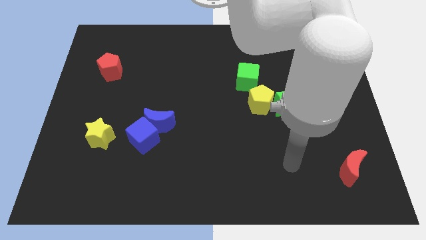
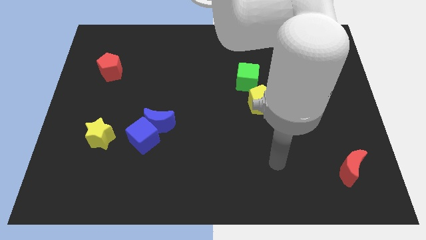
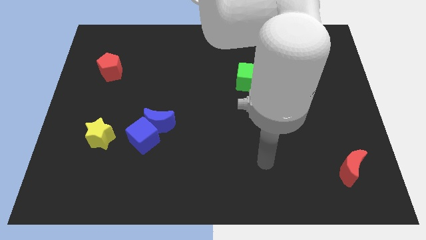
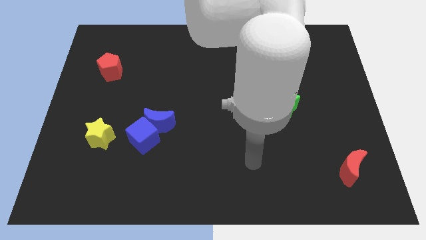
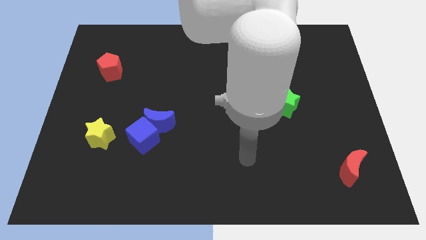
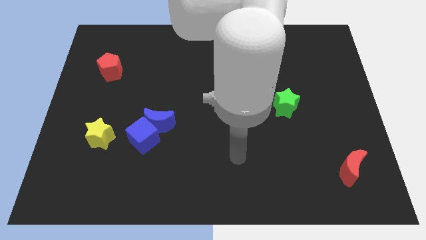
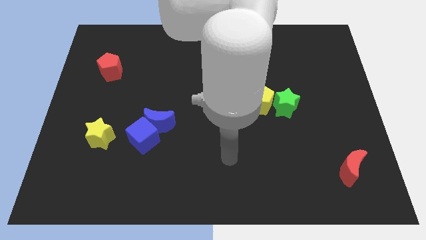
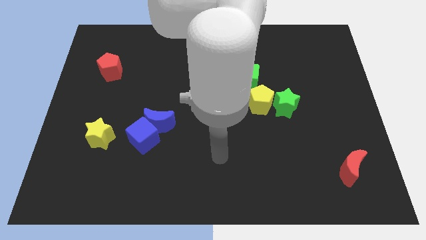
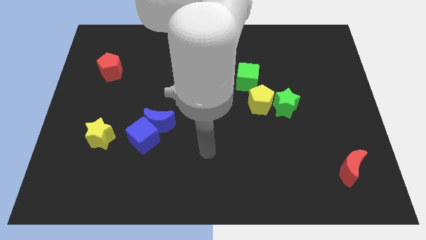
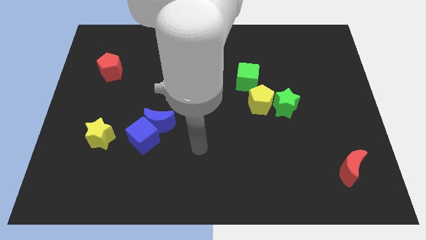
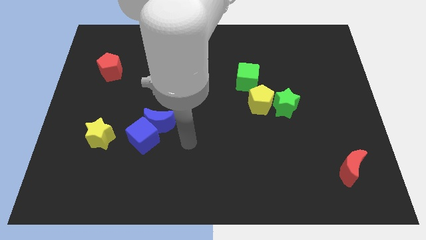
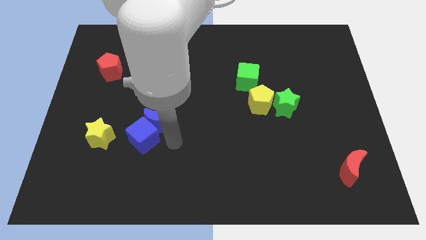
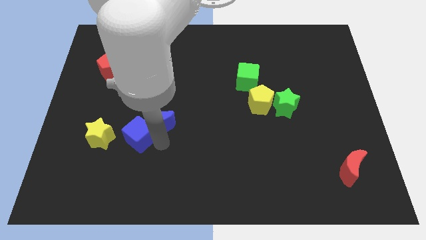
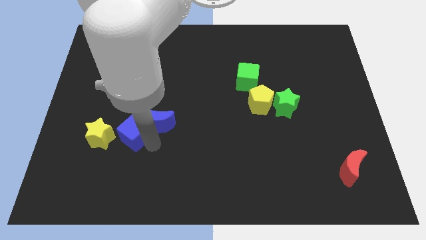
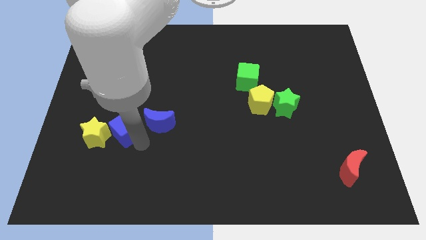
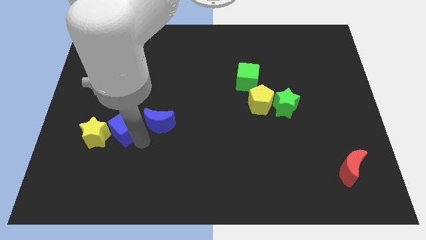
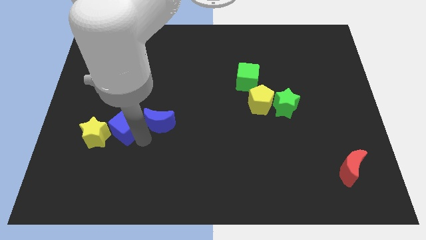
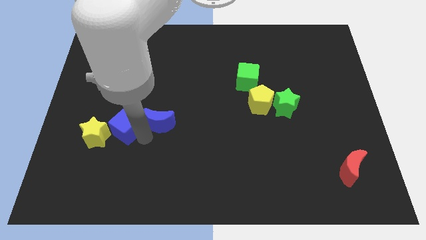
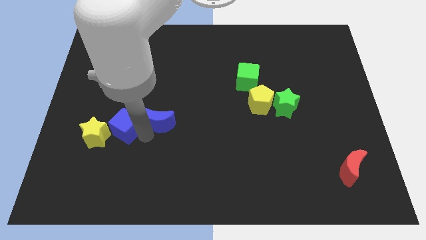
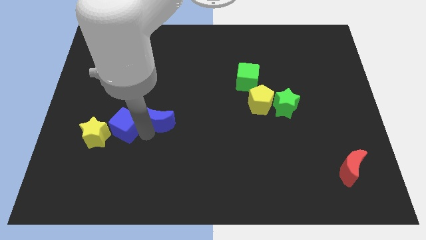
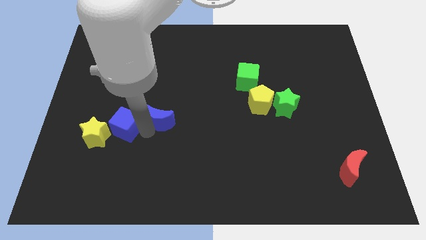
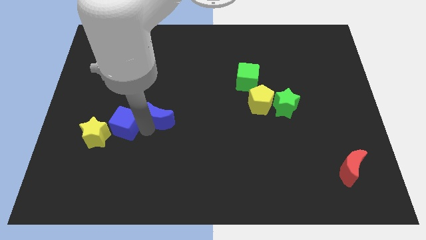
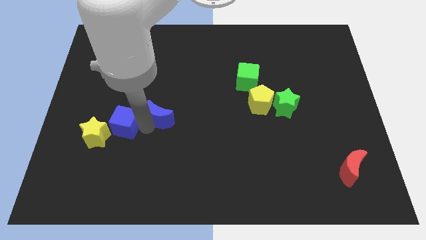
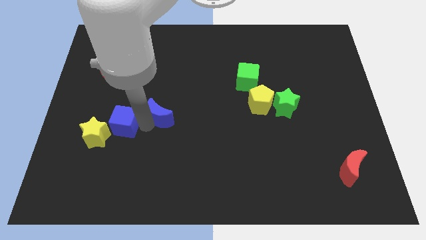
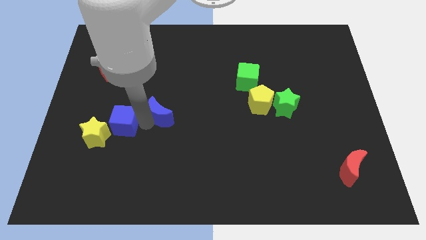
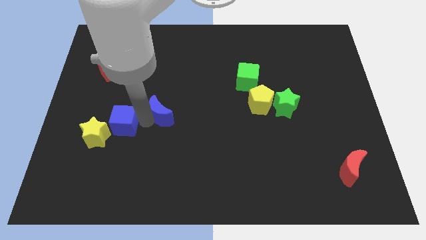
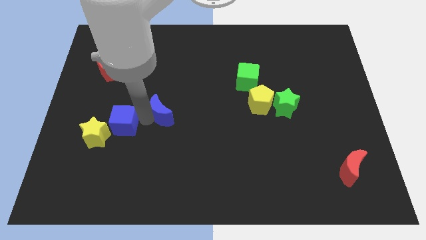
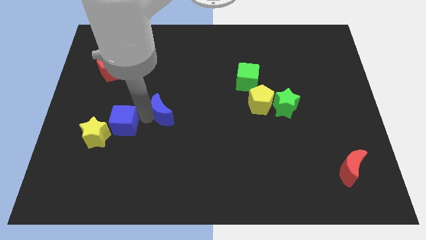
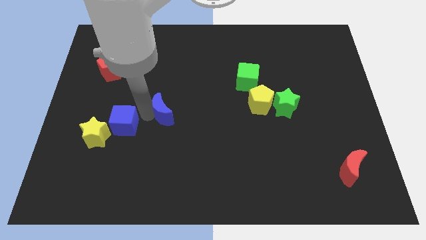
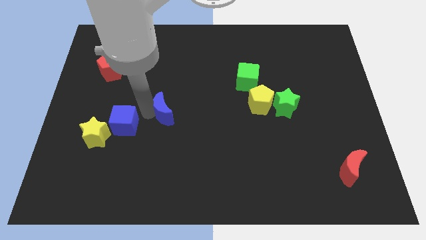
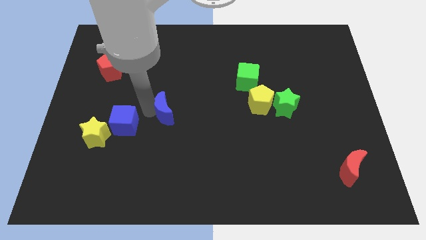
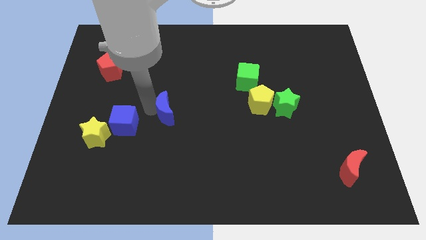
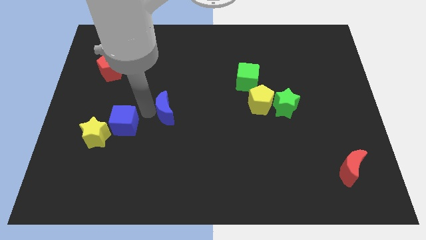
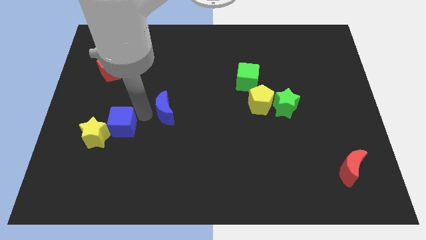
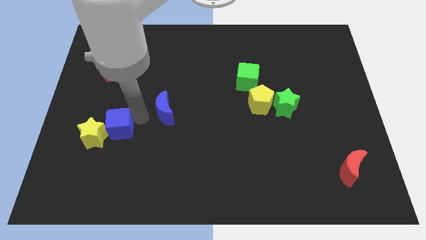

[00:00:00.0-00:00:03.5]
pull the blue moon apart from the blue cube

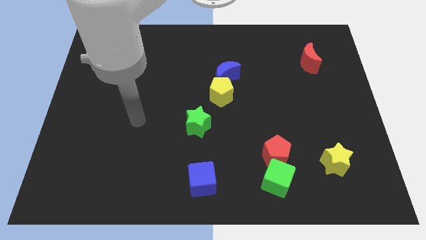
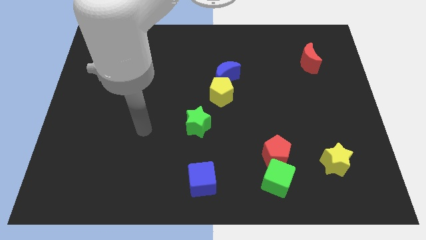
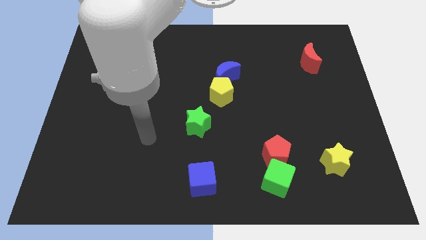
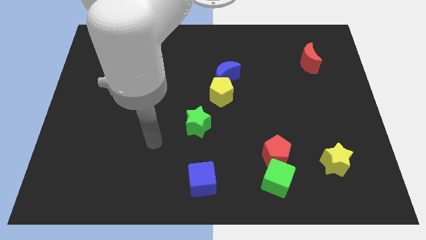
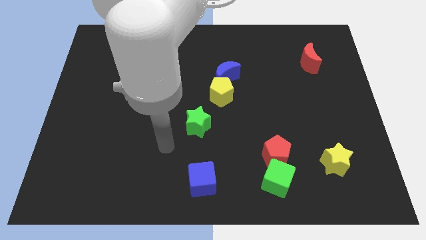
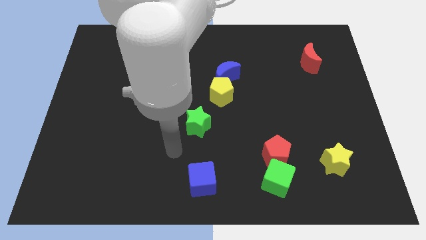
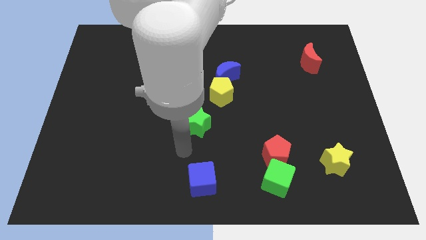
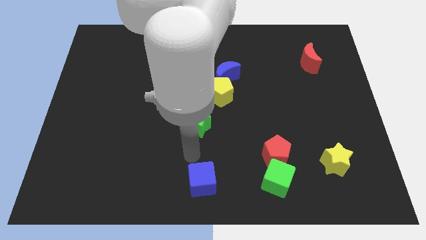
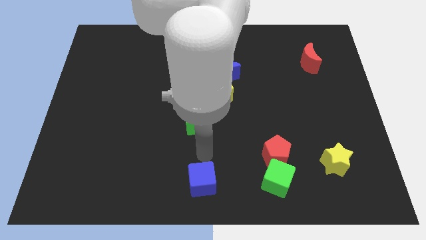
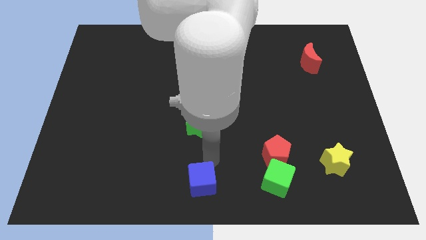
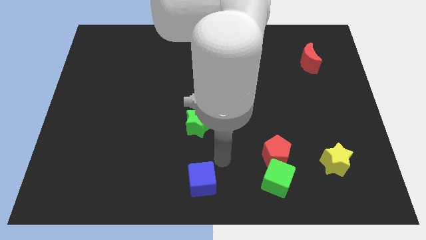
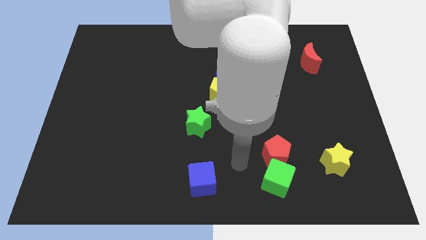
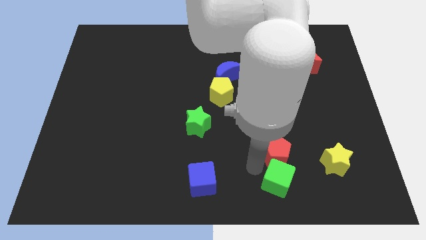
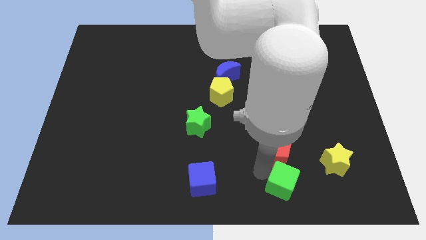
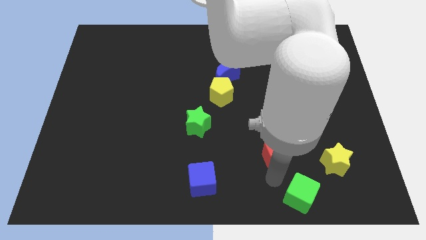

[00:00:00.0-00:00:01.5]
separate the red pentagon from the green cube

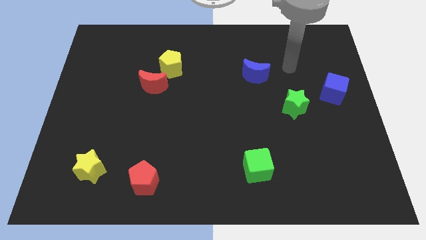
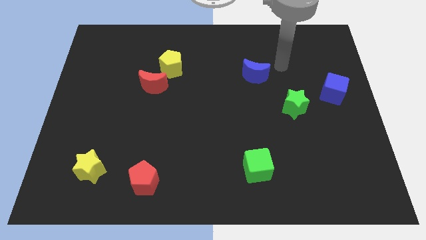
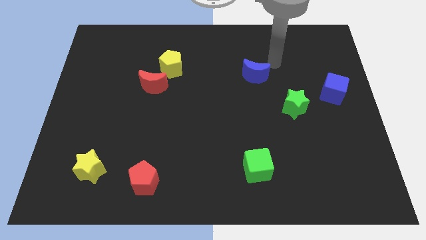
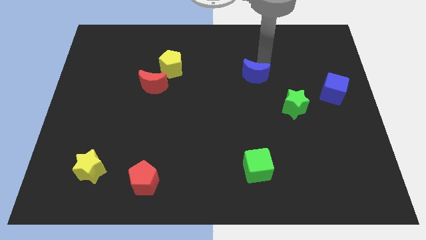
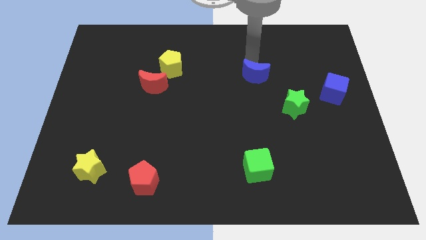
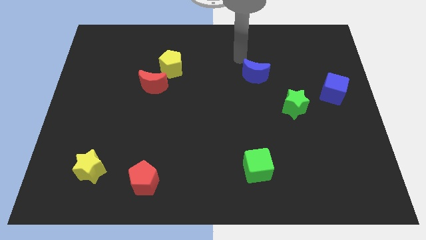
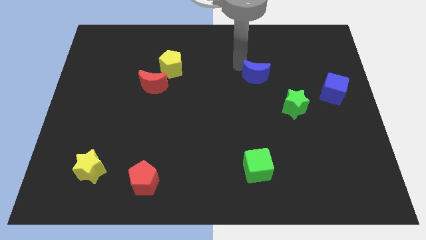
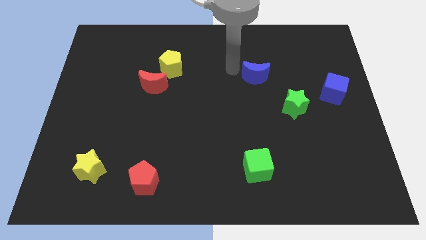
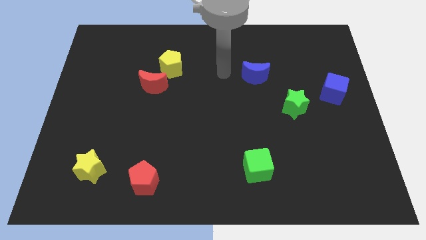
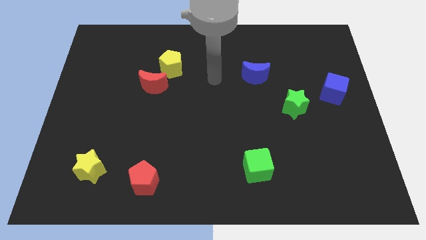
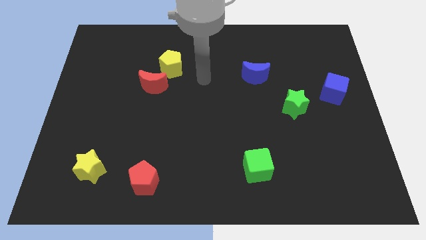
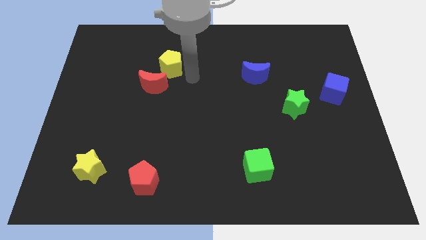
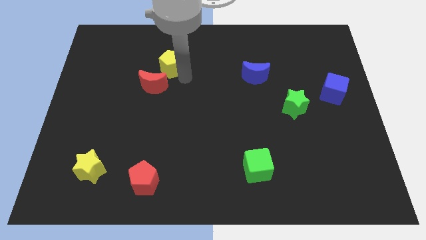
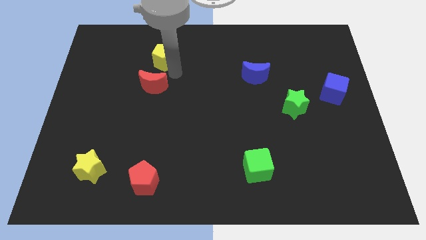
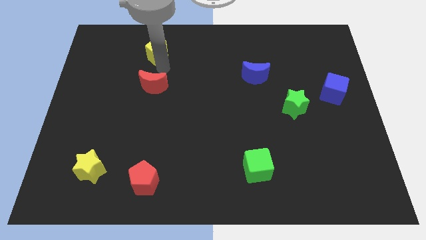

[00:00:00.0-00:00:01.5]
separate the red moon from the yellow pentagon

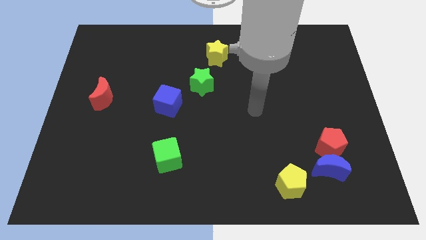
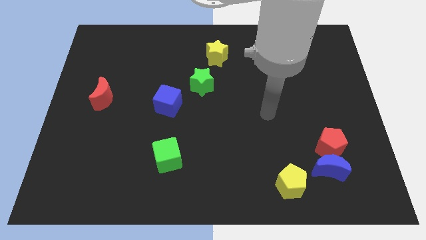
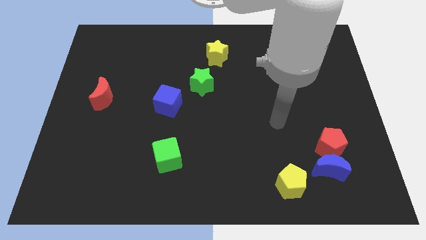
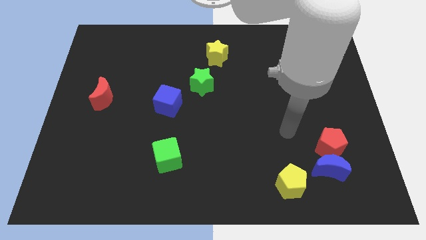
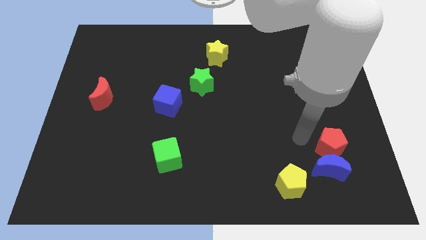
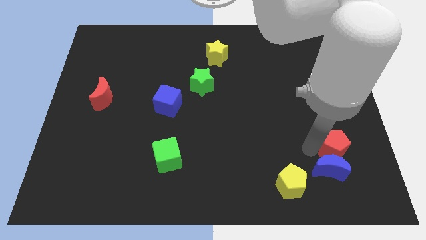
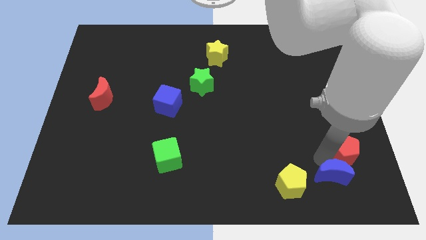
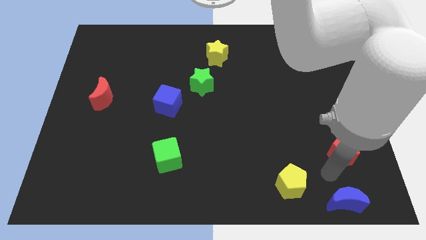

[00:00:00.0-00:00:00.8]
separate the red pentagon from the blue moon

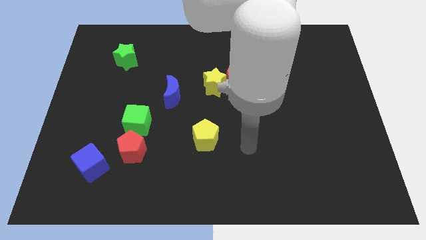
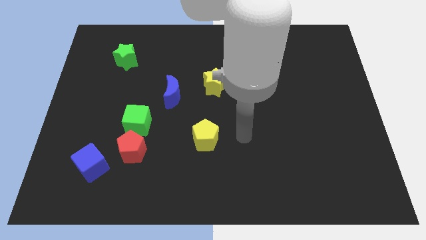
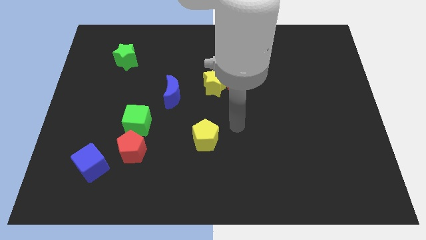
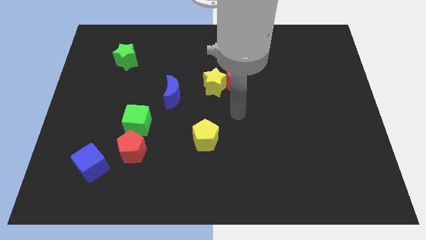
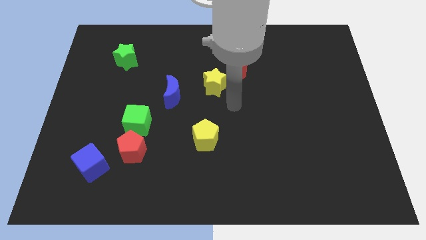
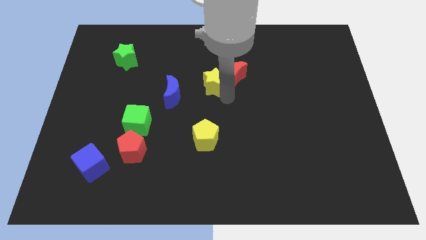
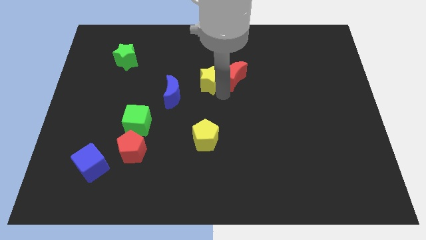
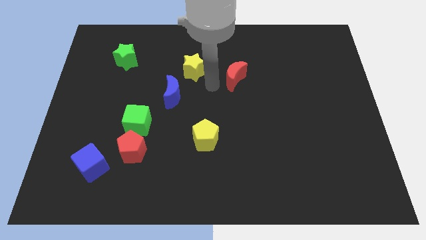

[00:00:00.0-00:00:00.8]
separate the red moon from the yellow star

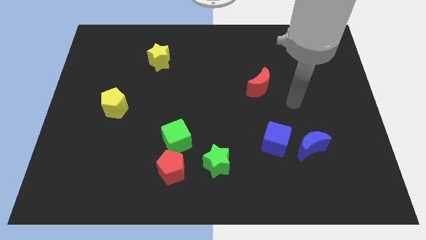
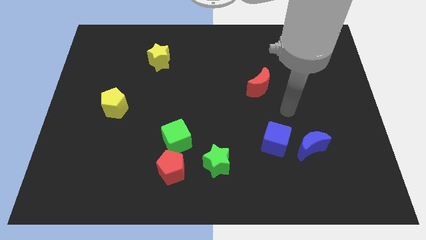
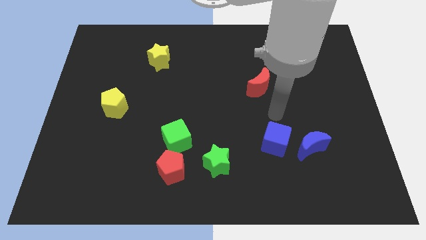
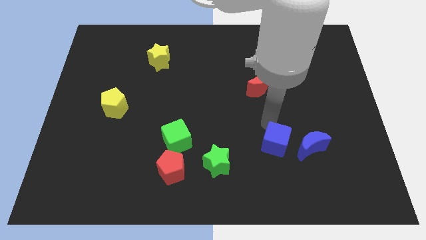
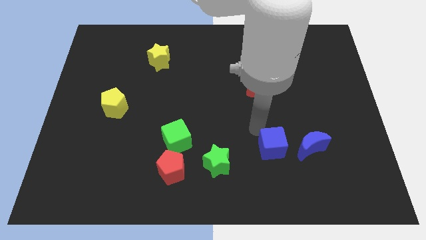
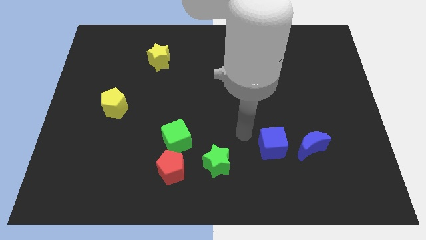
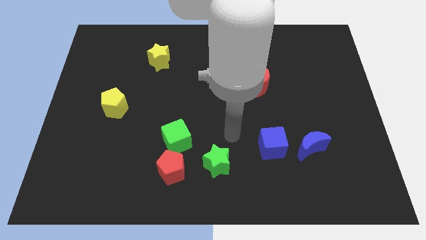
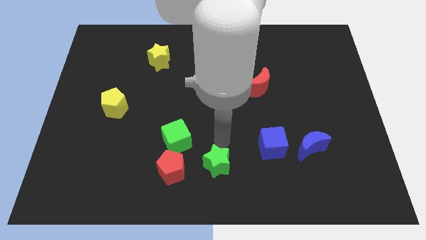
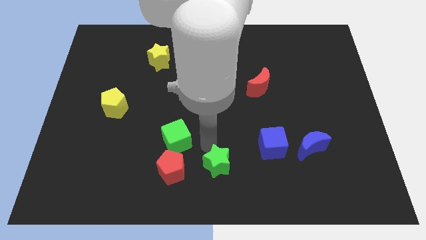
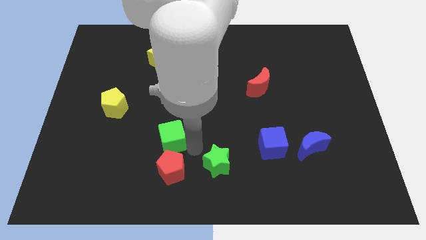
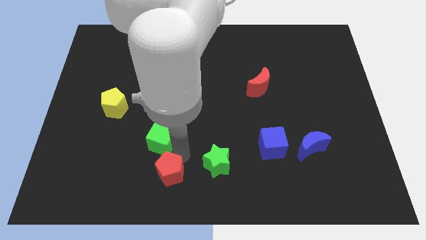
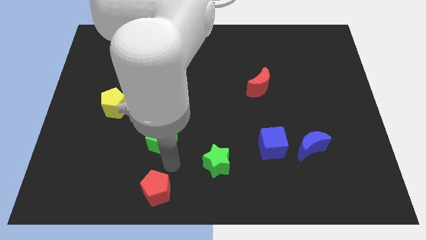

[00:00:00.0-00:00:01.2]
move the green cube away from the red pentagon
